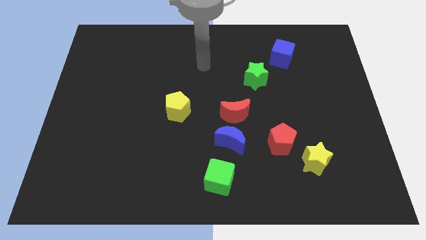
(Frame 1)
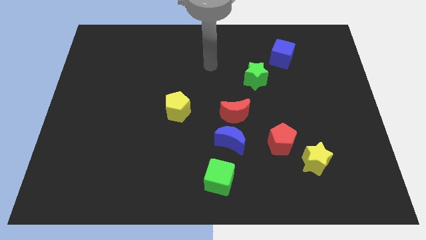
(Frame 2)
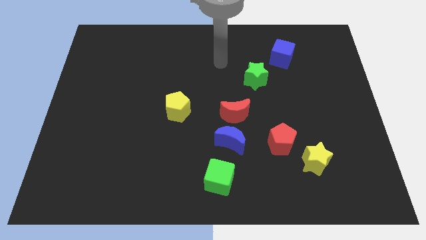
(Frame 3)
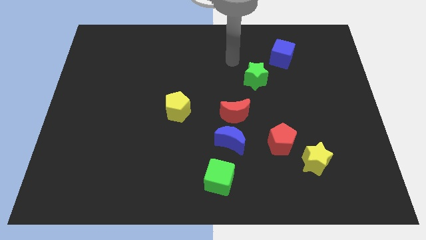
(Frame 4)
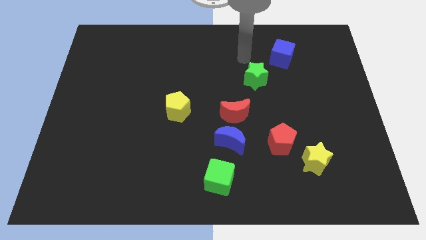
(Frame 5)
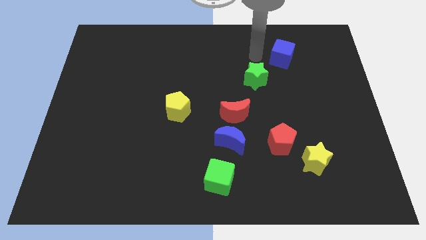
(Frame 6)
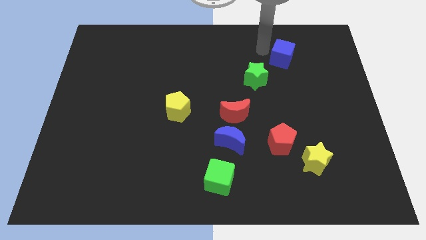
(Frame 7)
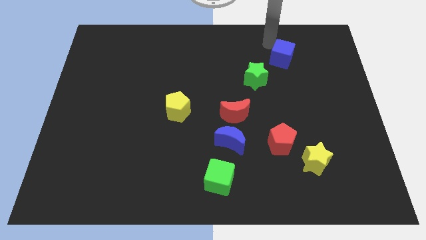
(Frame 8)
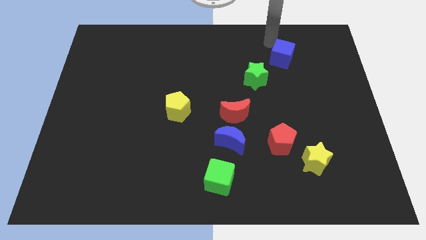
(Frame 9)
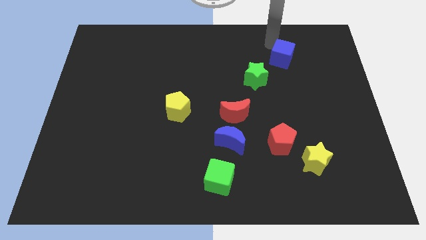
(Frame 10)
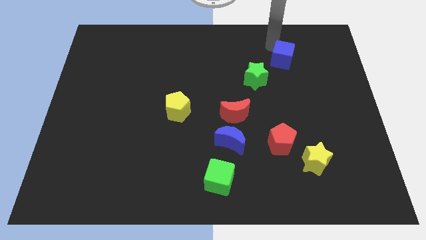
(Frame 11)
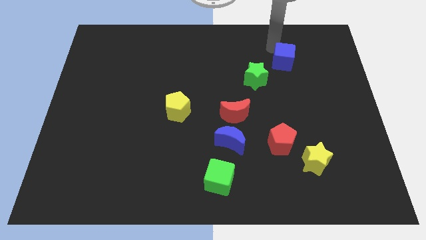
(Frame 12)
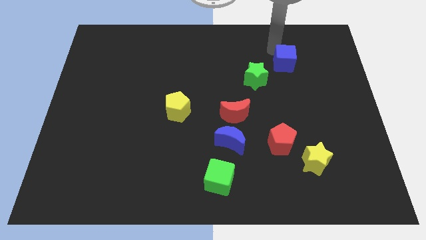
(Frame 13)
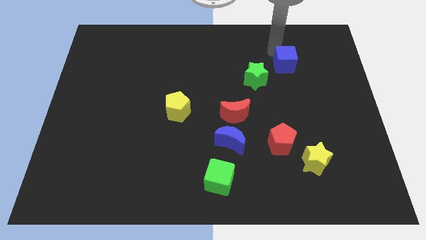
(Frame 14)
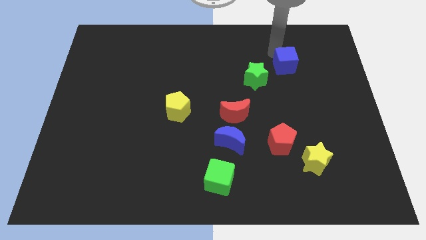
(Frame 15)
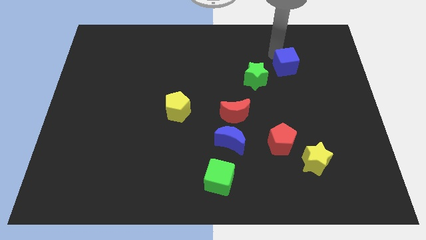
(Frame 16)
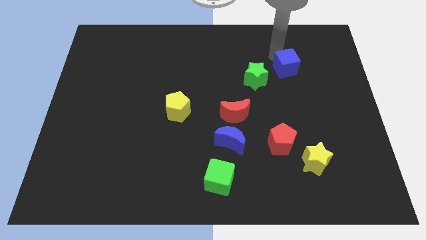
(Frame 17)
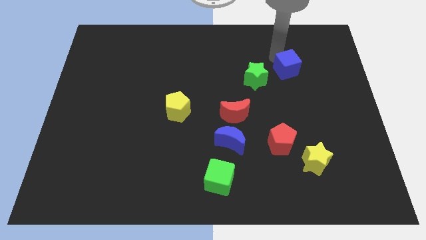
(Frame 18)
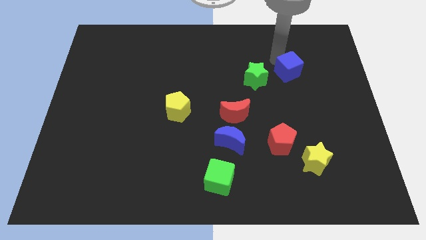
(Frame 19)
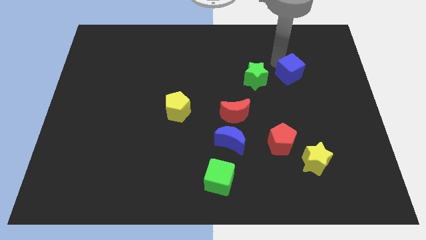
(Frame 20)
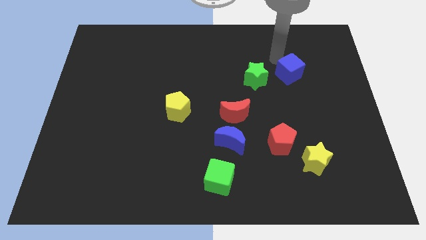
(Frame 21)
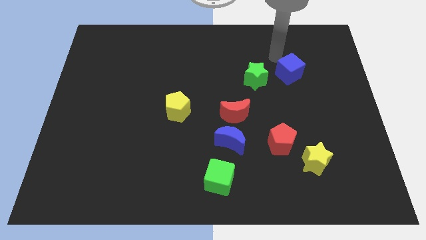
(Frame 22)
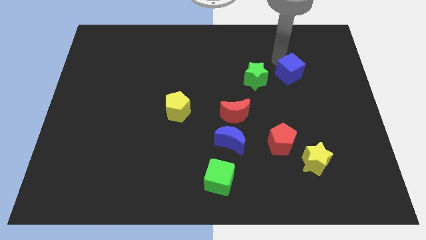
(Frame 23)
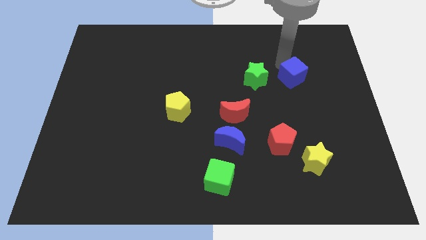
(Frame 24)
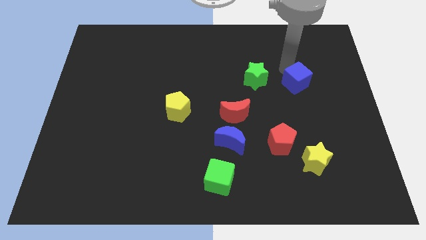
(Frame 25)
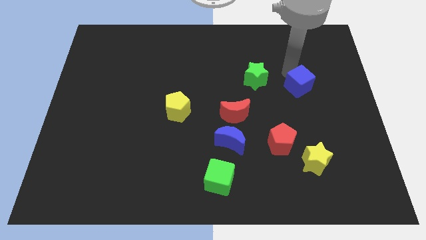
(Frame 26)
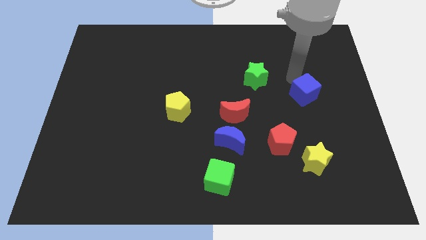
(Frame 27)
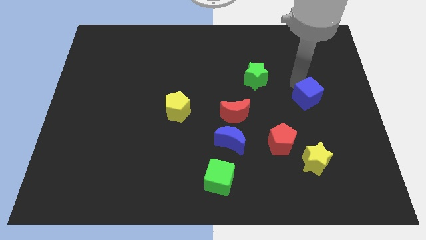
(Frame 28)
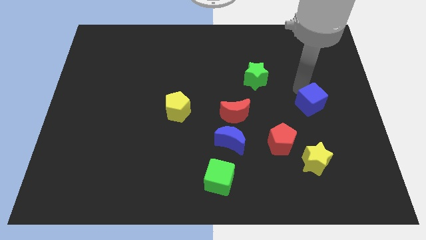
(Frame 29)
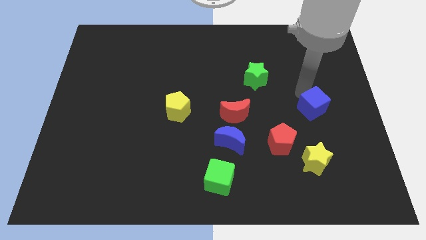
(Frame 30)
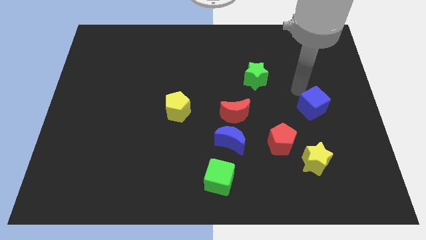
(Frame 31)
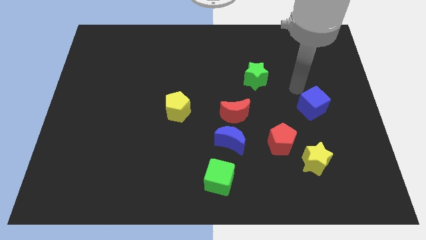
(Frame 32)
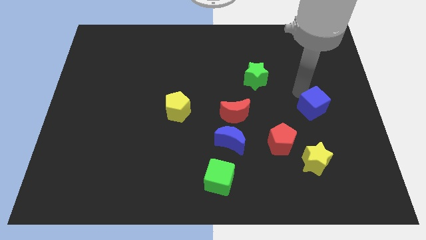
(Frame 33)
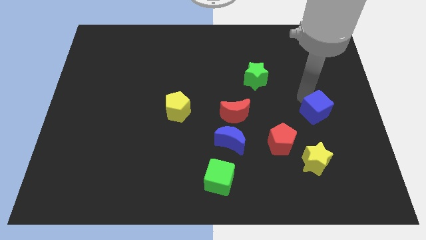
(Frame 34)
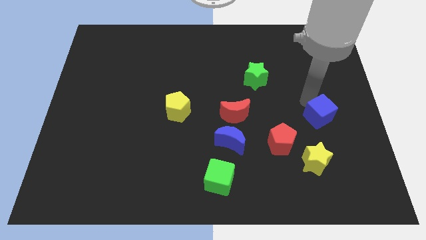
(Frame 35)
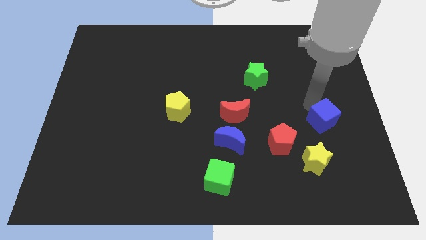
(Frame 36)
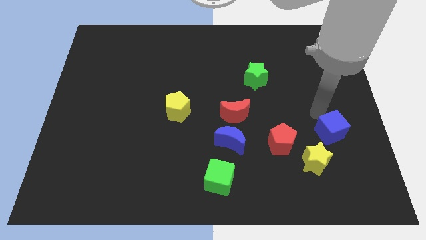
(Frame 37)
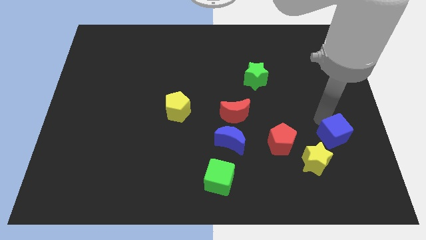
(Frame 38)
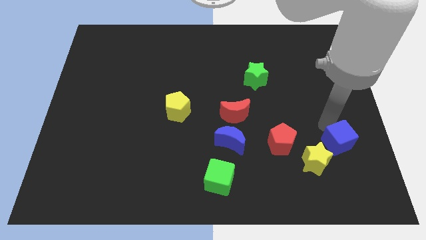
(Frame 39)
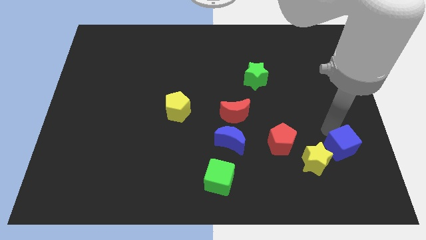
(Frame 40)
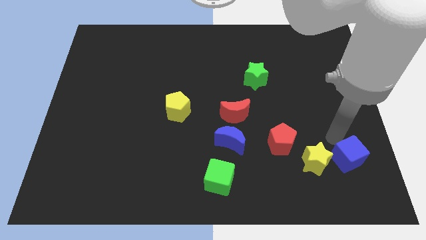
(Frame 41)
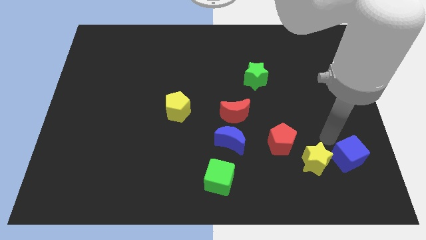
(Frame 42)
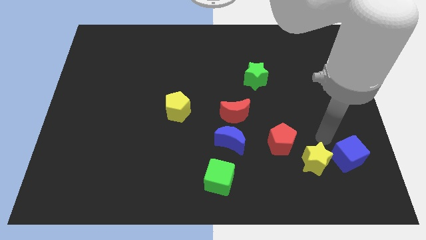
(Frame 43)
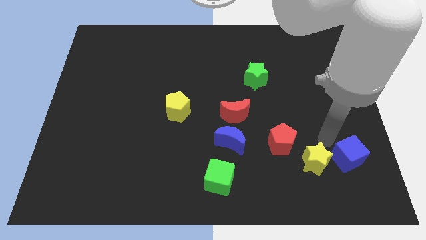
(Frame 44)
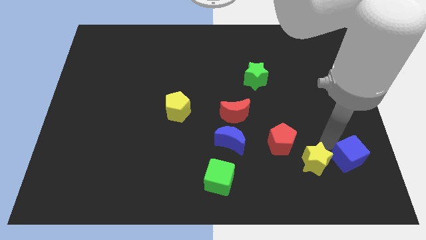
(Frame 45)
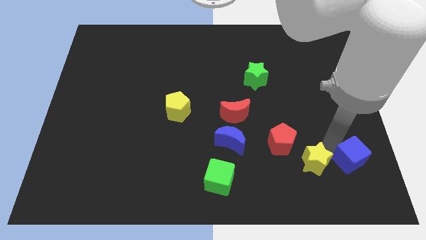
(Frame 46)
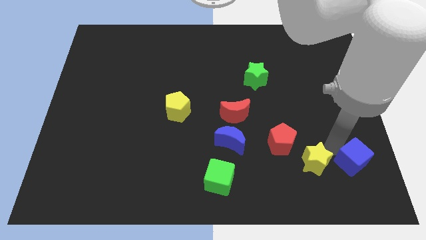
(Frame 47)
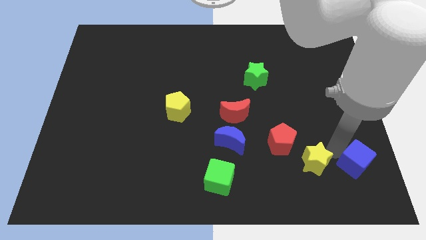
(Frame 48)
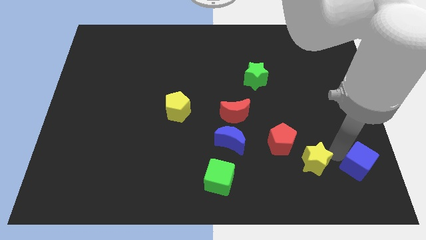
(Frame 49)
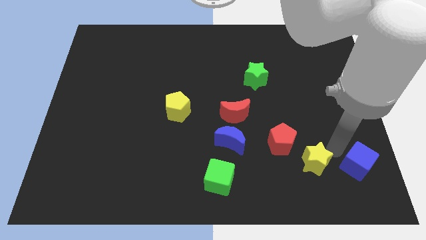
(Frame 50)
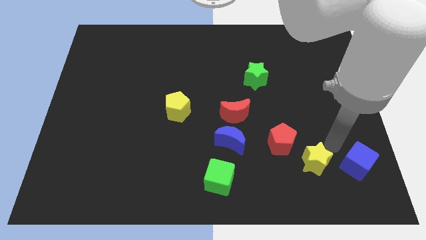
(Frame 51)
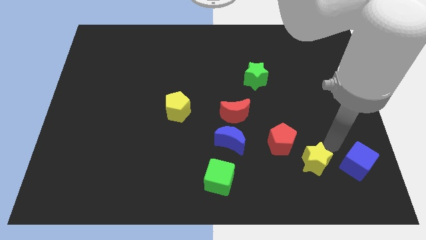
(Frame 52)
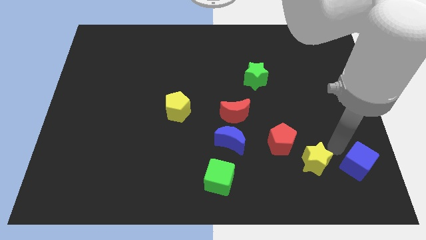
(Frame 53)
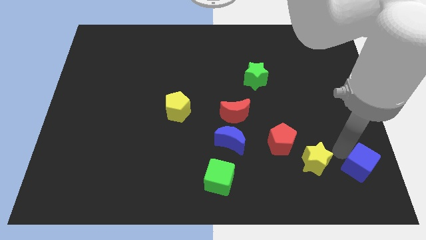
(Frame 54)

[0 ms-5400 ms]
put the blue cube to the bottom right

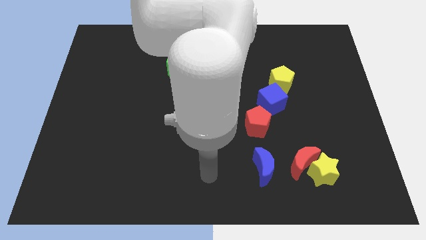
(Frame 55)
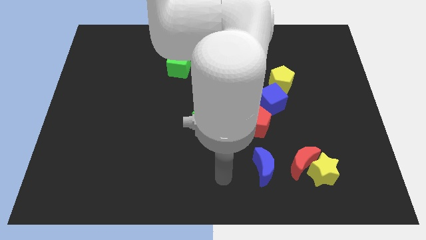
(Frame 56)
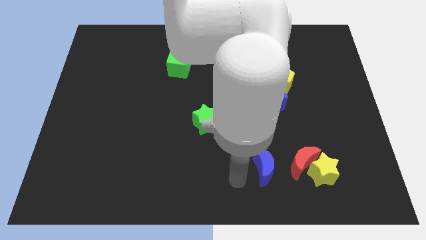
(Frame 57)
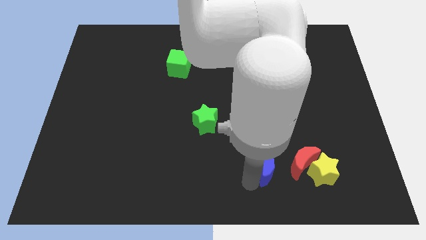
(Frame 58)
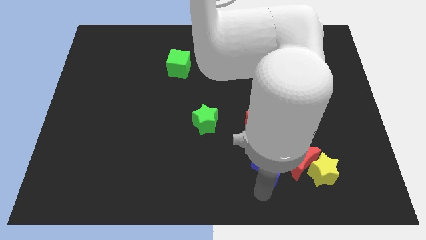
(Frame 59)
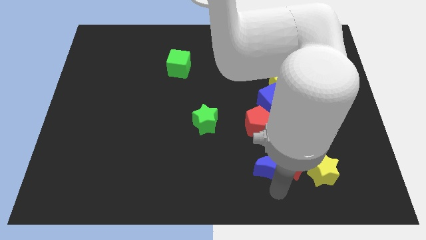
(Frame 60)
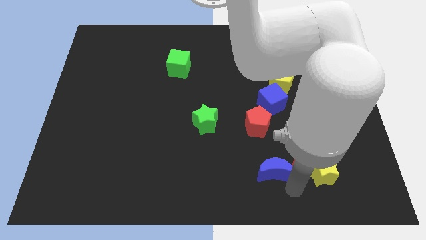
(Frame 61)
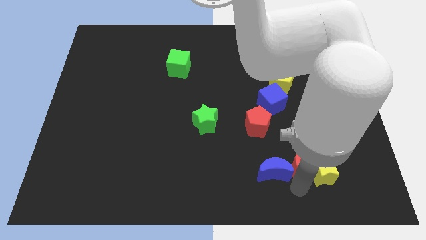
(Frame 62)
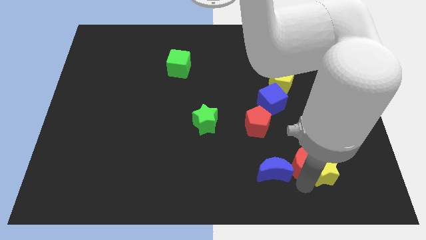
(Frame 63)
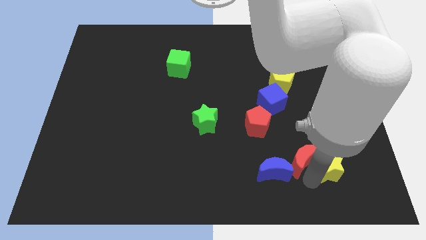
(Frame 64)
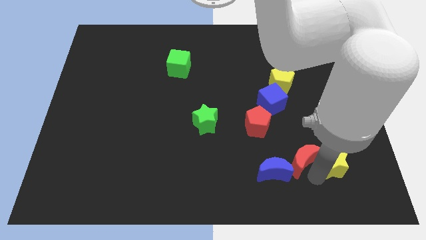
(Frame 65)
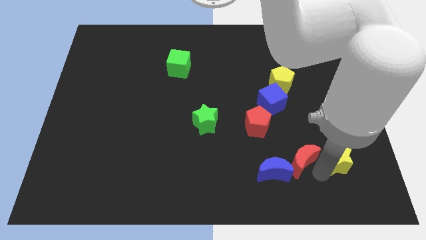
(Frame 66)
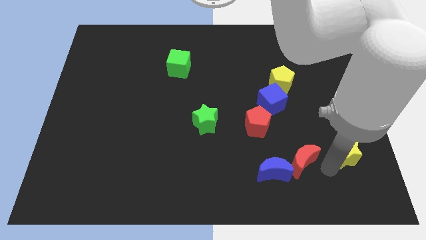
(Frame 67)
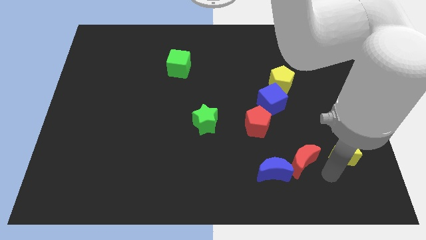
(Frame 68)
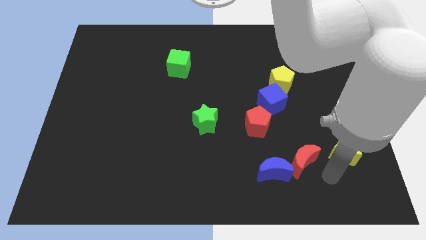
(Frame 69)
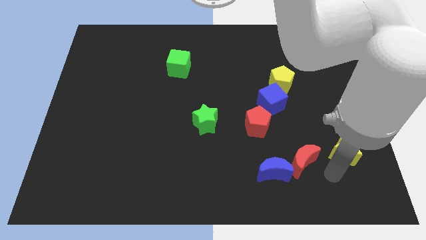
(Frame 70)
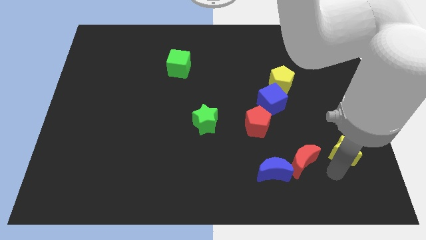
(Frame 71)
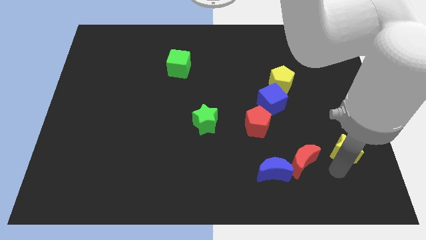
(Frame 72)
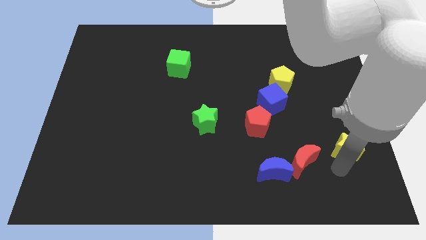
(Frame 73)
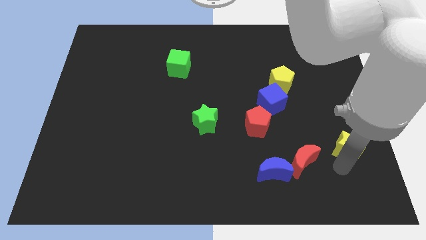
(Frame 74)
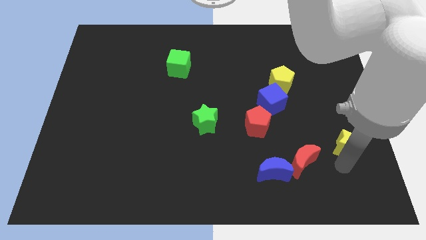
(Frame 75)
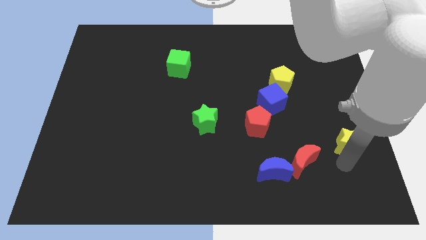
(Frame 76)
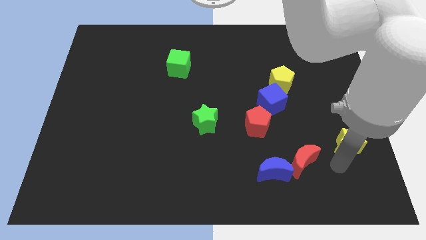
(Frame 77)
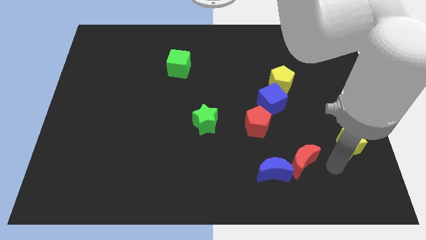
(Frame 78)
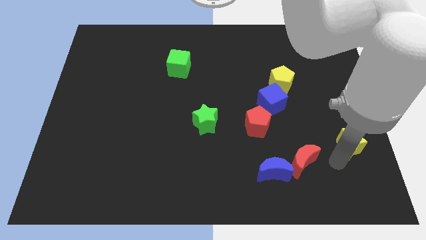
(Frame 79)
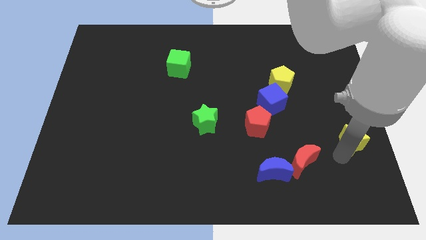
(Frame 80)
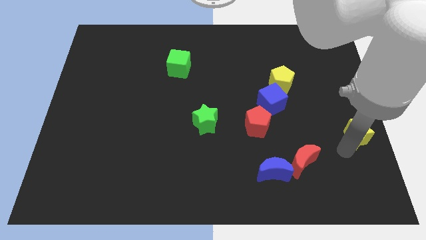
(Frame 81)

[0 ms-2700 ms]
push the yellow star to the right side of the board
